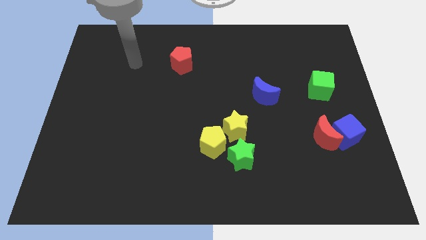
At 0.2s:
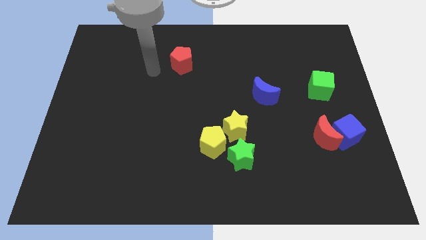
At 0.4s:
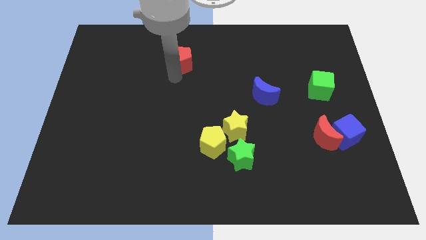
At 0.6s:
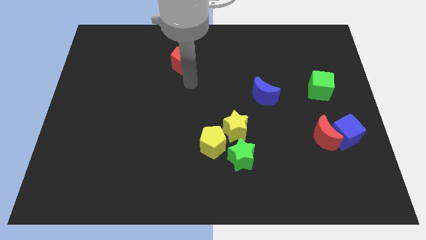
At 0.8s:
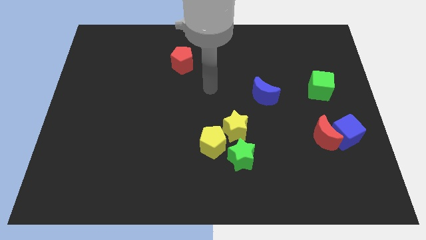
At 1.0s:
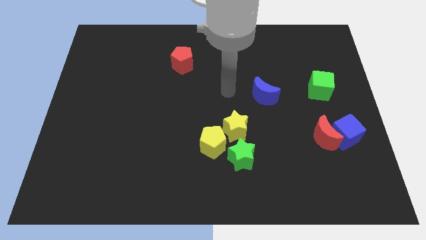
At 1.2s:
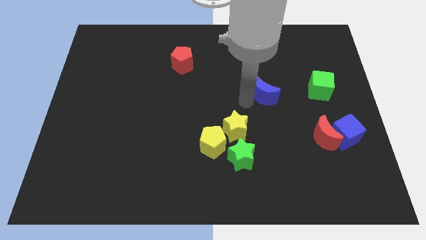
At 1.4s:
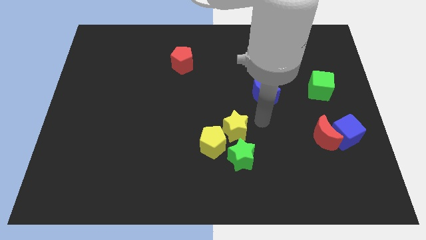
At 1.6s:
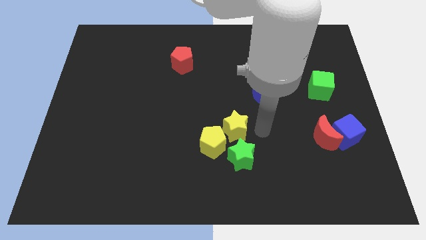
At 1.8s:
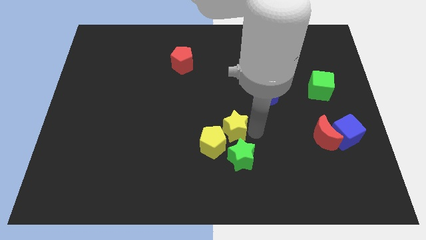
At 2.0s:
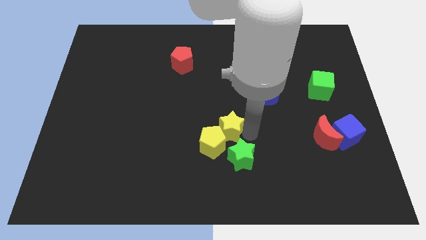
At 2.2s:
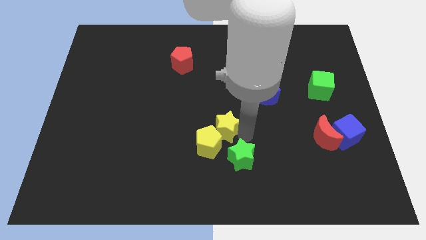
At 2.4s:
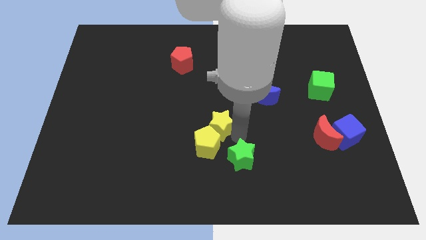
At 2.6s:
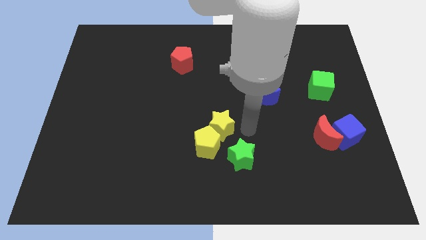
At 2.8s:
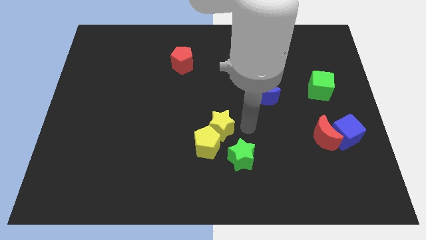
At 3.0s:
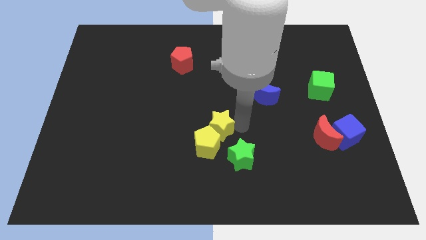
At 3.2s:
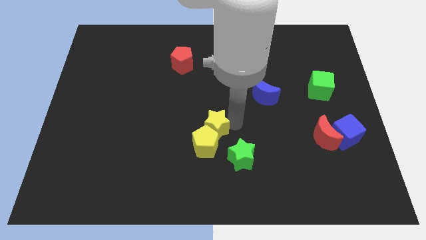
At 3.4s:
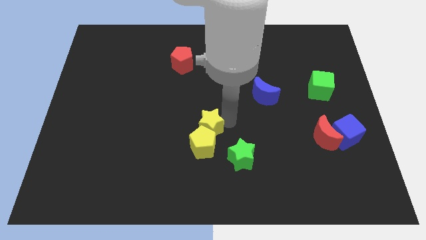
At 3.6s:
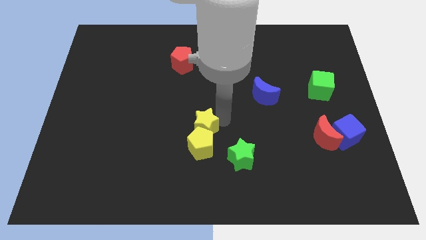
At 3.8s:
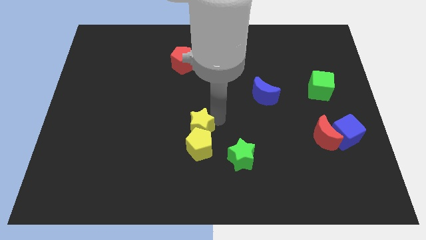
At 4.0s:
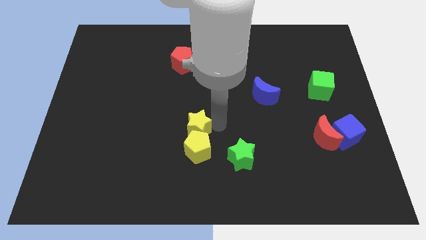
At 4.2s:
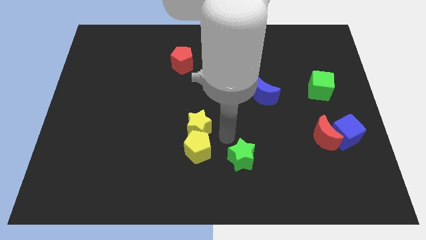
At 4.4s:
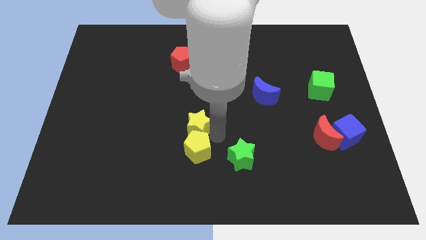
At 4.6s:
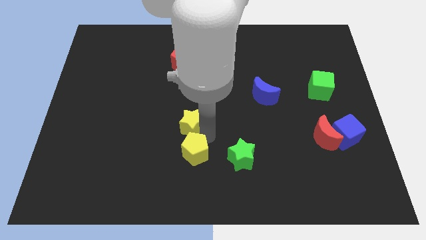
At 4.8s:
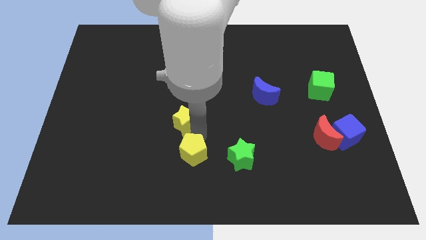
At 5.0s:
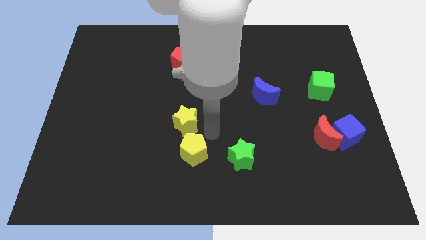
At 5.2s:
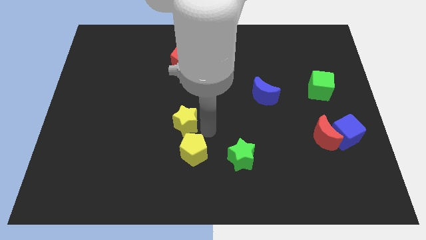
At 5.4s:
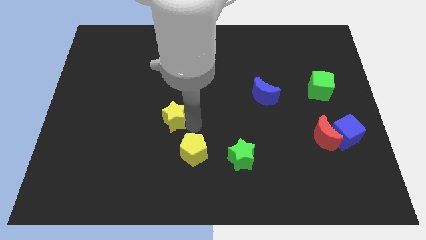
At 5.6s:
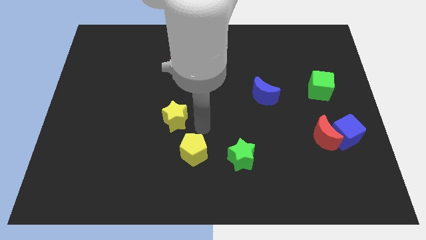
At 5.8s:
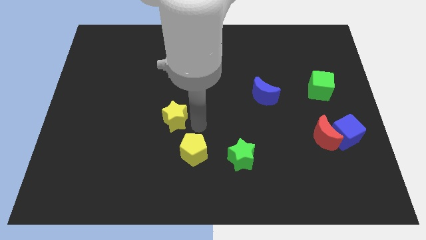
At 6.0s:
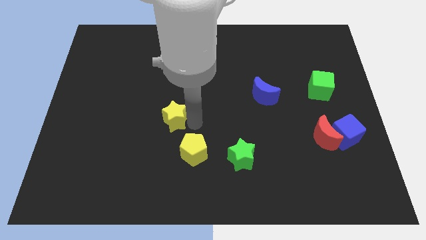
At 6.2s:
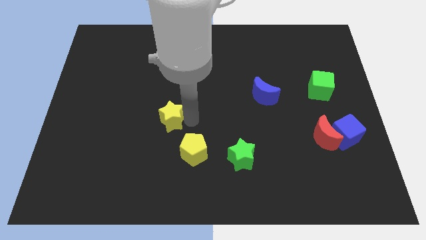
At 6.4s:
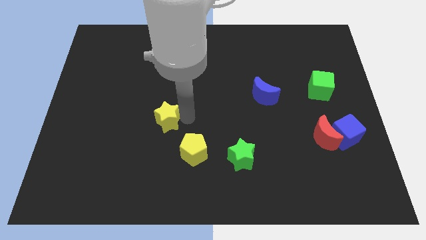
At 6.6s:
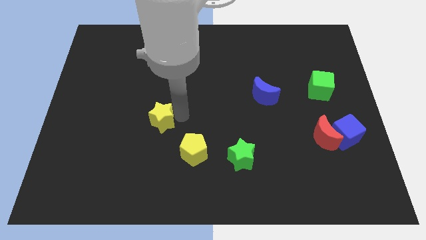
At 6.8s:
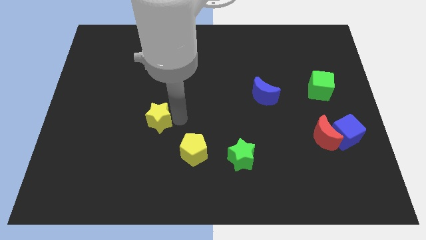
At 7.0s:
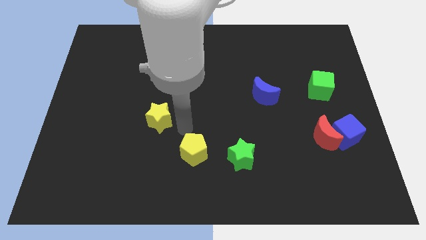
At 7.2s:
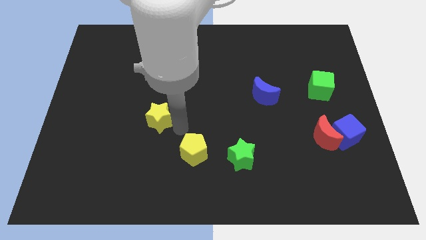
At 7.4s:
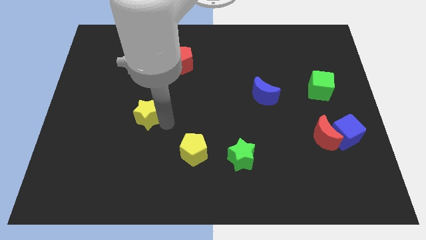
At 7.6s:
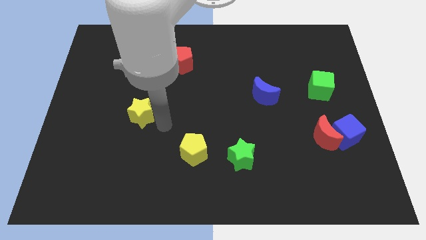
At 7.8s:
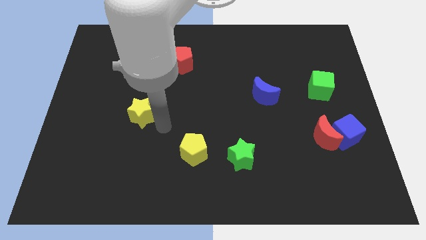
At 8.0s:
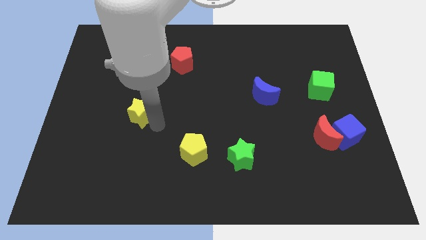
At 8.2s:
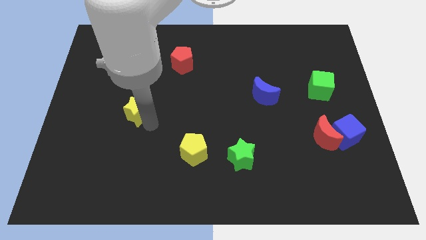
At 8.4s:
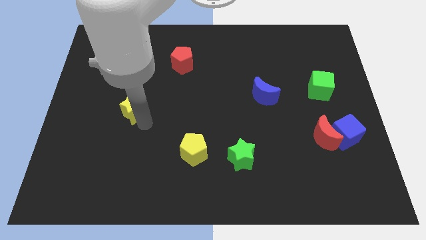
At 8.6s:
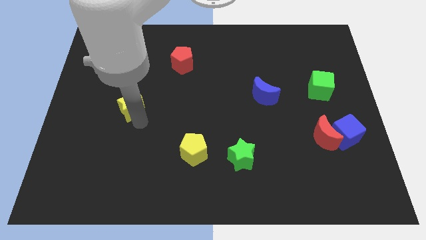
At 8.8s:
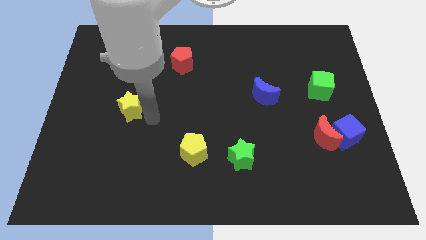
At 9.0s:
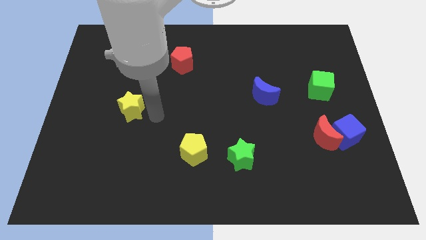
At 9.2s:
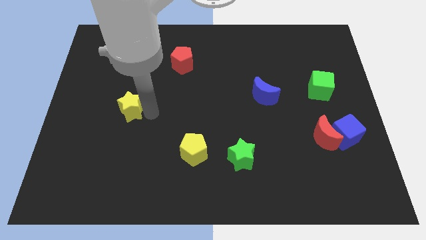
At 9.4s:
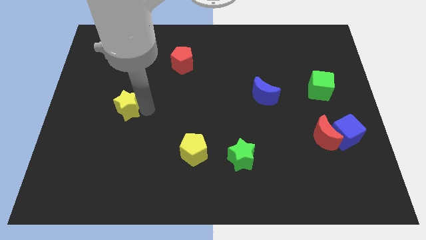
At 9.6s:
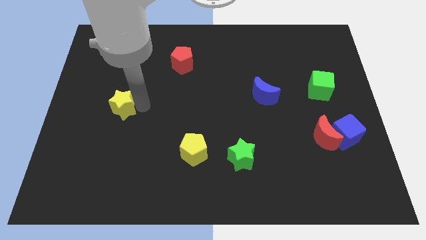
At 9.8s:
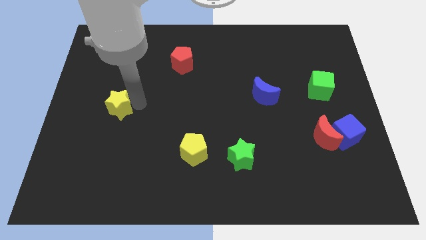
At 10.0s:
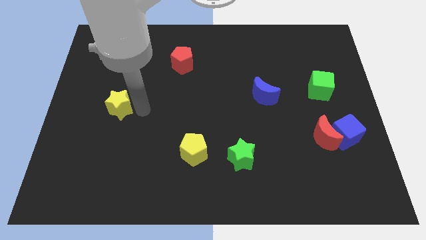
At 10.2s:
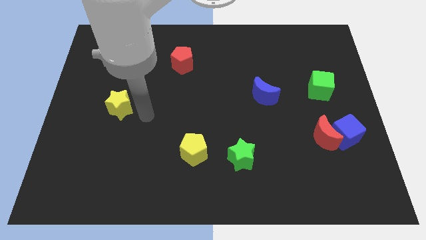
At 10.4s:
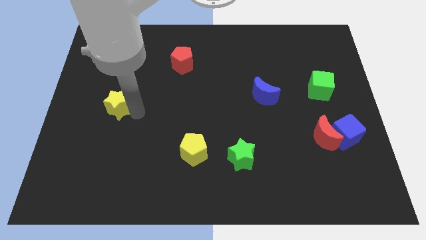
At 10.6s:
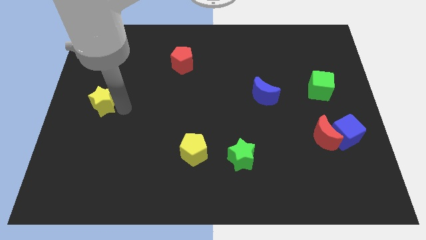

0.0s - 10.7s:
push the yellow star to the center left

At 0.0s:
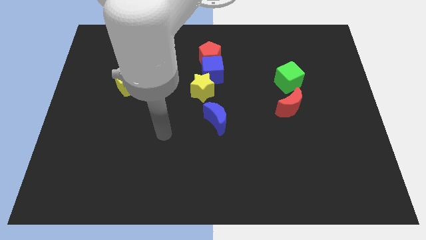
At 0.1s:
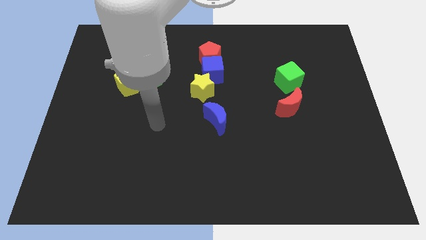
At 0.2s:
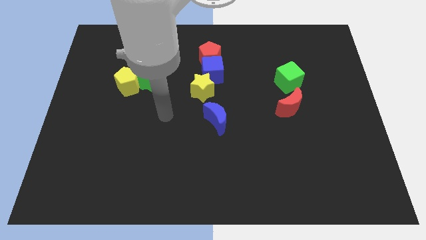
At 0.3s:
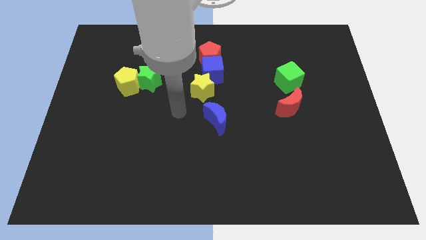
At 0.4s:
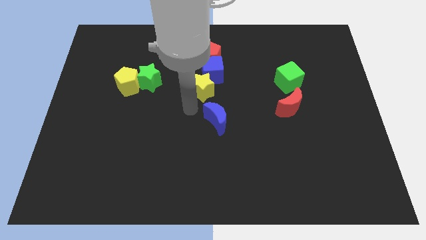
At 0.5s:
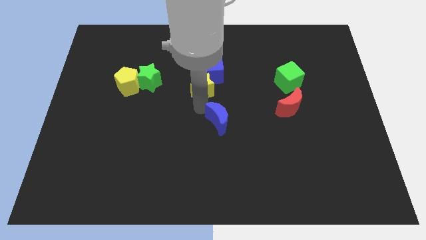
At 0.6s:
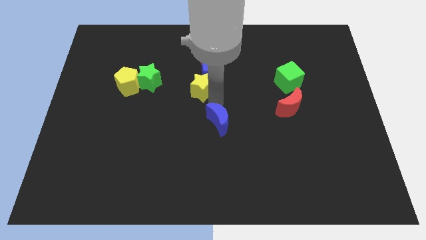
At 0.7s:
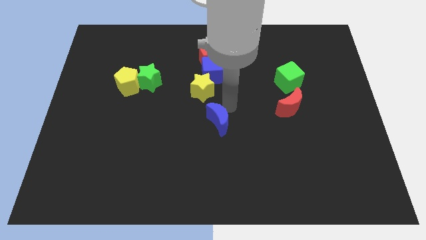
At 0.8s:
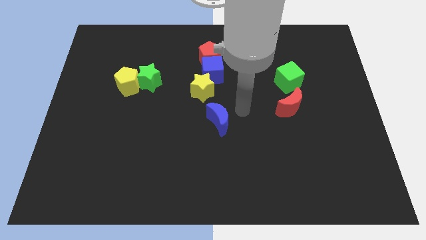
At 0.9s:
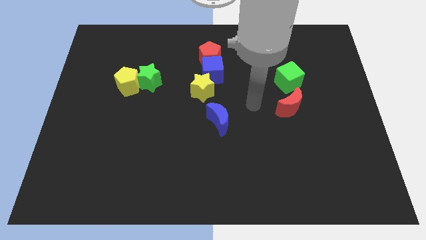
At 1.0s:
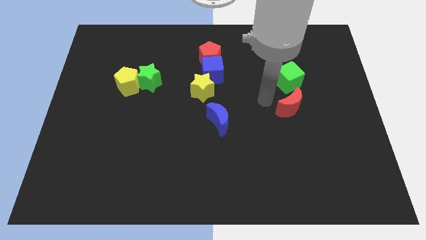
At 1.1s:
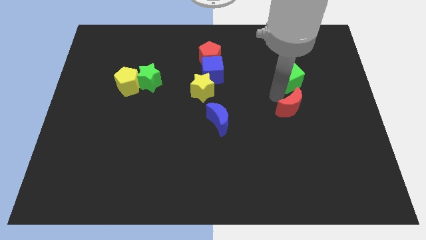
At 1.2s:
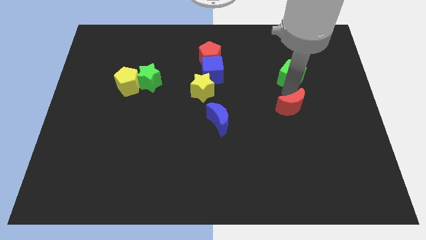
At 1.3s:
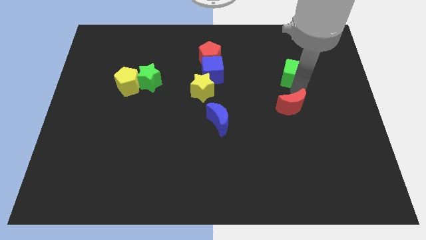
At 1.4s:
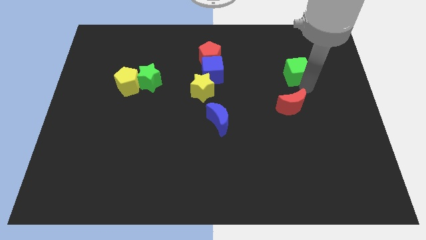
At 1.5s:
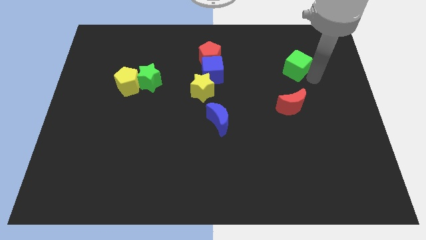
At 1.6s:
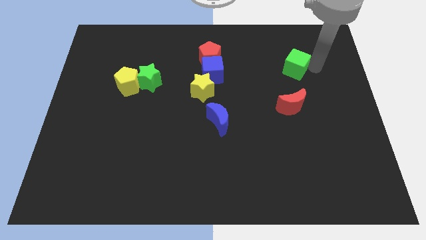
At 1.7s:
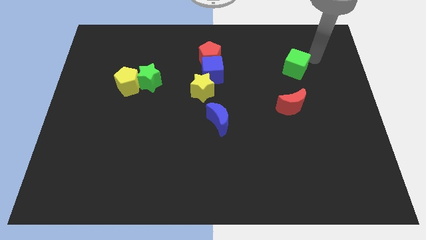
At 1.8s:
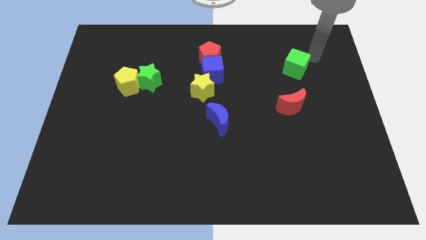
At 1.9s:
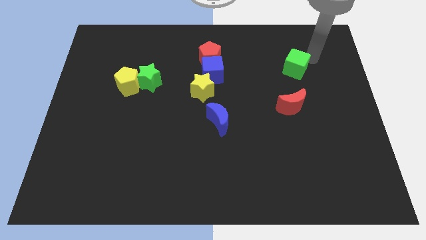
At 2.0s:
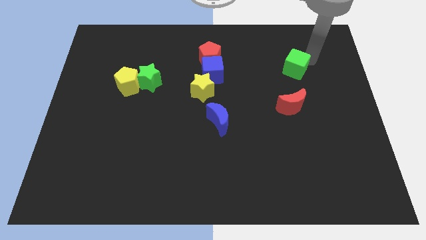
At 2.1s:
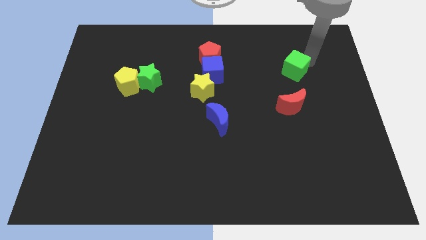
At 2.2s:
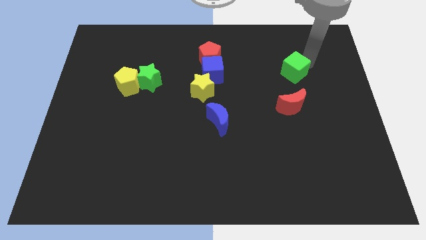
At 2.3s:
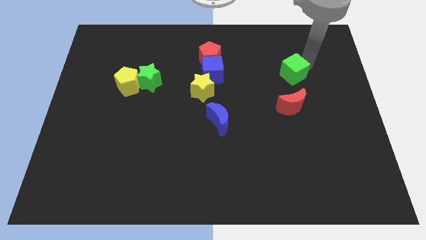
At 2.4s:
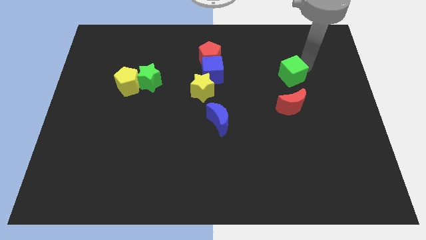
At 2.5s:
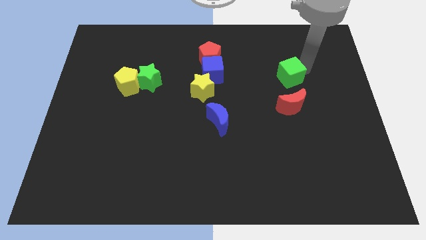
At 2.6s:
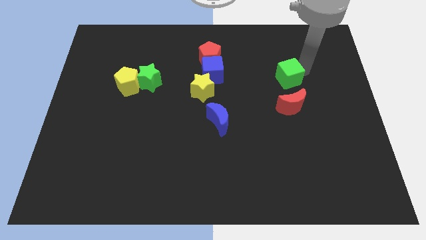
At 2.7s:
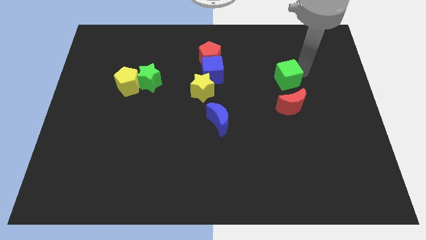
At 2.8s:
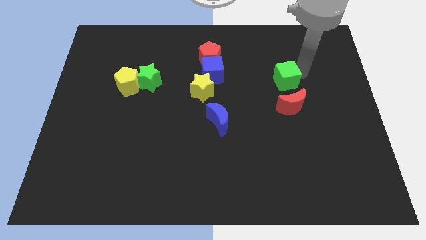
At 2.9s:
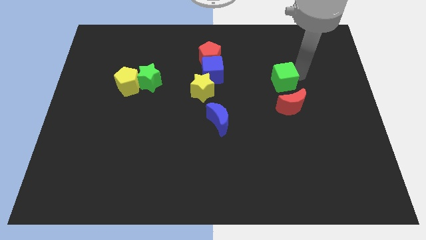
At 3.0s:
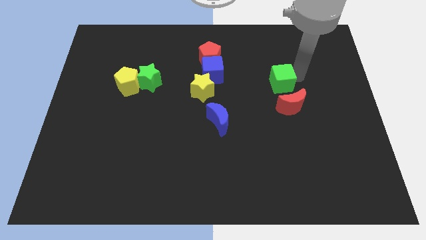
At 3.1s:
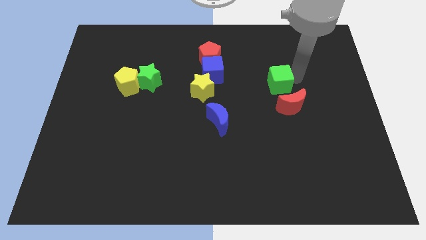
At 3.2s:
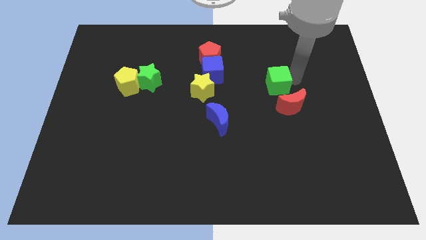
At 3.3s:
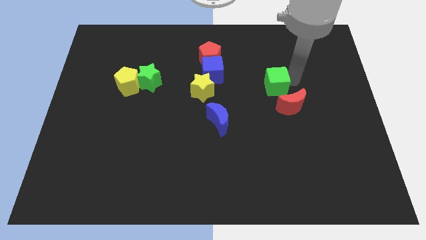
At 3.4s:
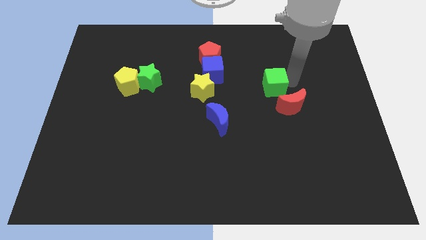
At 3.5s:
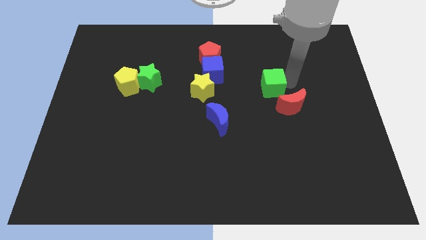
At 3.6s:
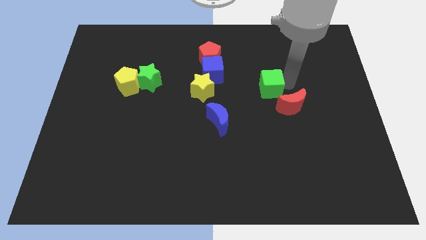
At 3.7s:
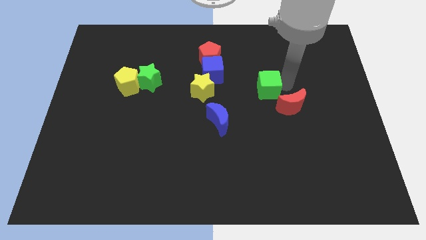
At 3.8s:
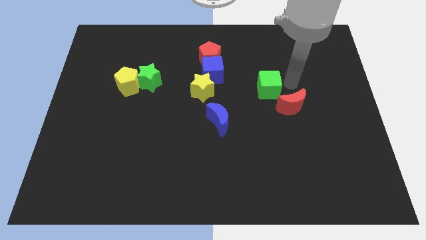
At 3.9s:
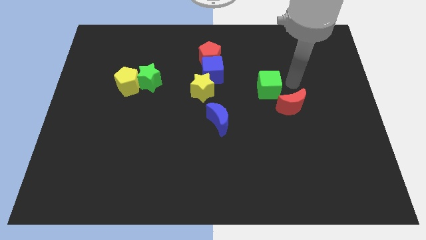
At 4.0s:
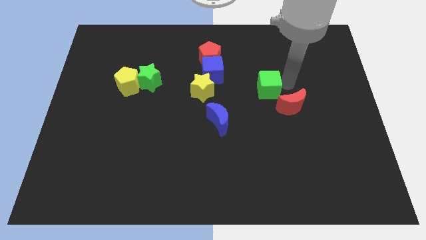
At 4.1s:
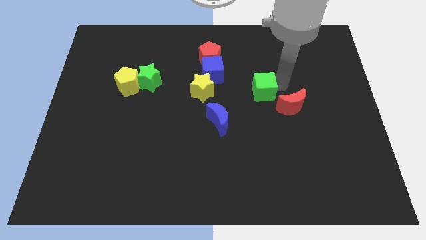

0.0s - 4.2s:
put the green cube to the center
